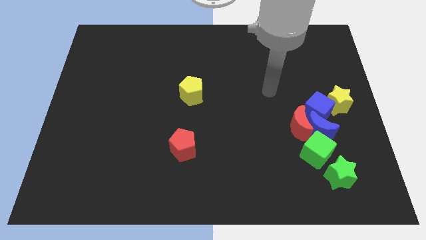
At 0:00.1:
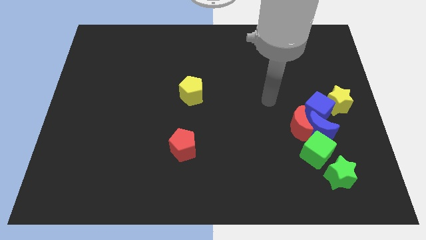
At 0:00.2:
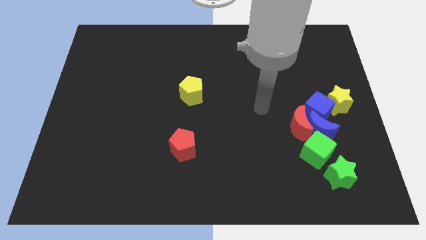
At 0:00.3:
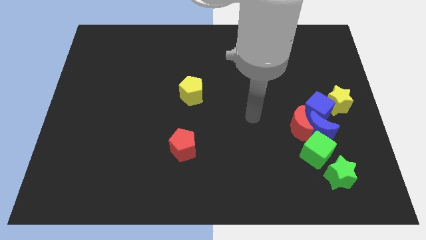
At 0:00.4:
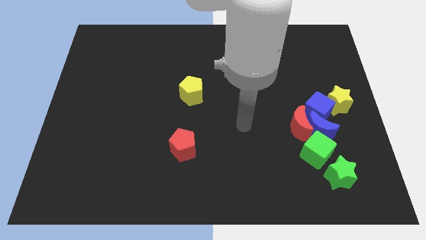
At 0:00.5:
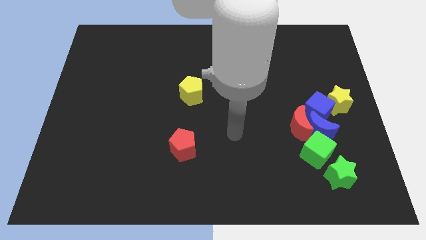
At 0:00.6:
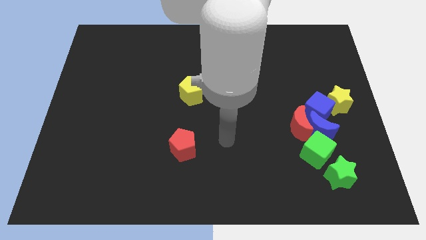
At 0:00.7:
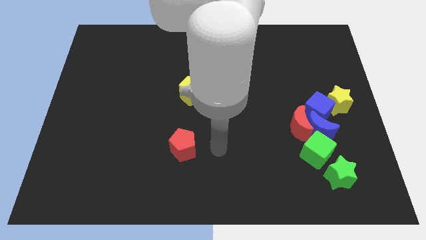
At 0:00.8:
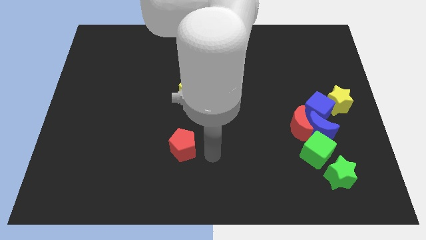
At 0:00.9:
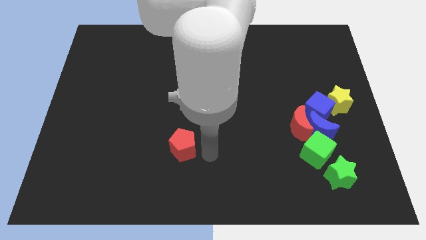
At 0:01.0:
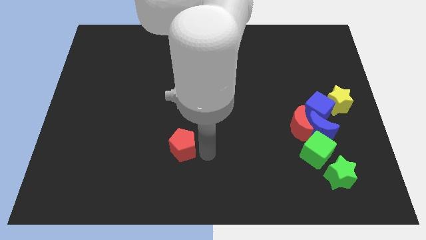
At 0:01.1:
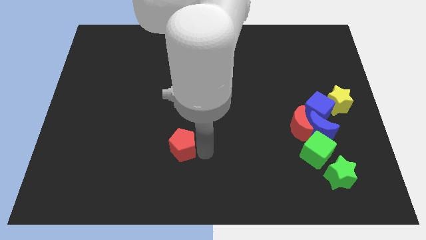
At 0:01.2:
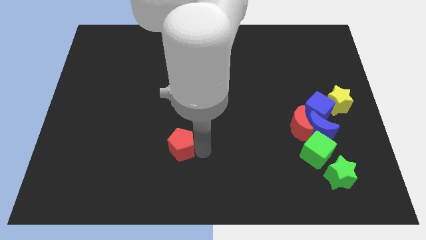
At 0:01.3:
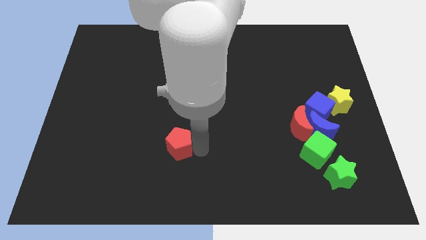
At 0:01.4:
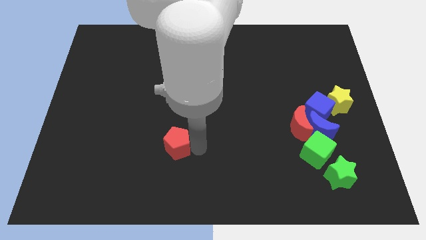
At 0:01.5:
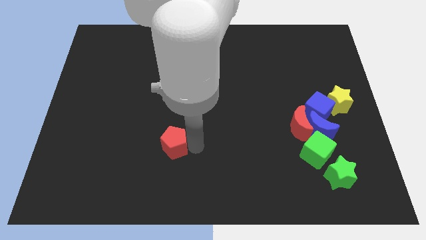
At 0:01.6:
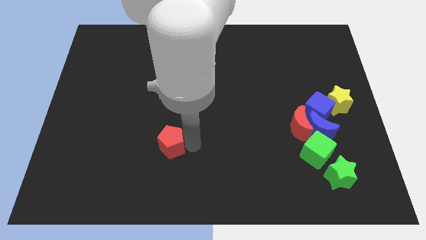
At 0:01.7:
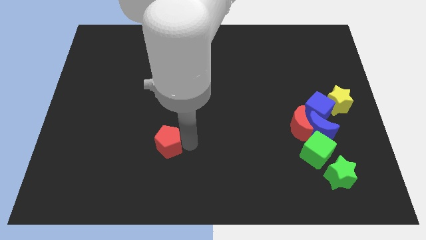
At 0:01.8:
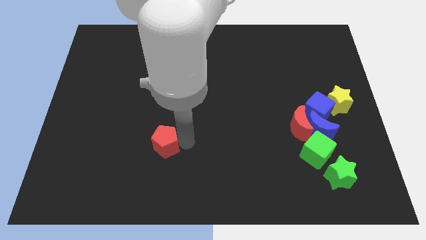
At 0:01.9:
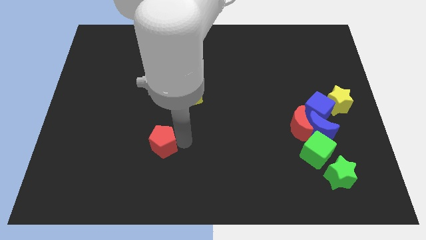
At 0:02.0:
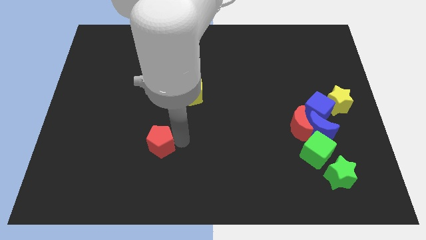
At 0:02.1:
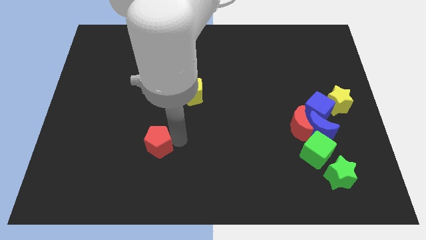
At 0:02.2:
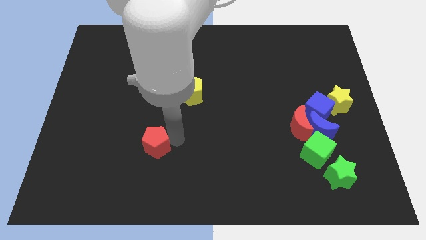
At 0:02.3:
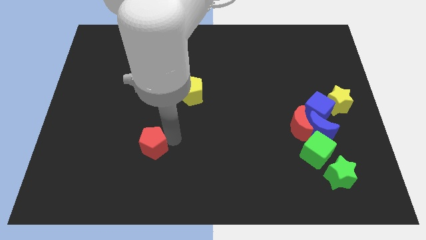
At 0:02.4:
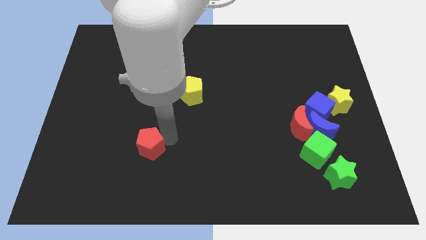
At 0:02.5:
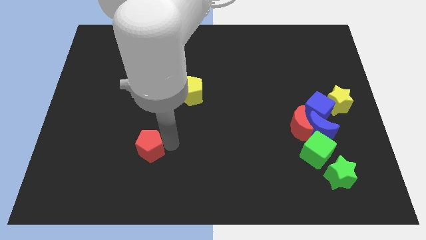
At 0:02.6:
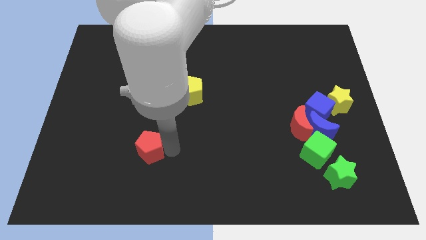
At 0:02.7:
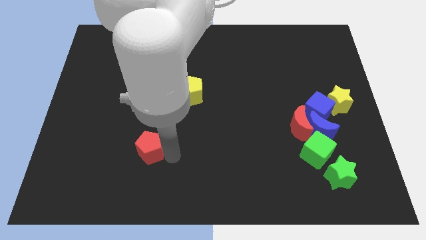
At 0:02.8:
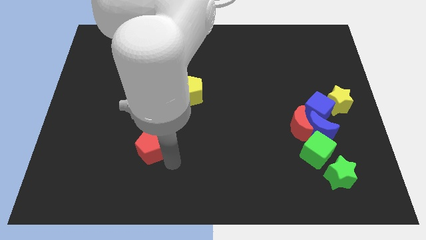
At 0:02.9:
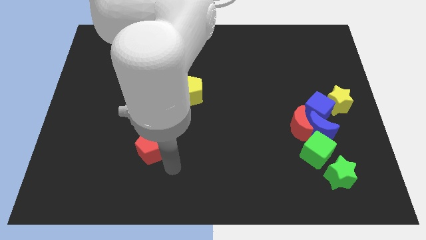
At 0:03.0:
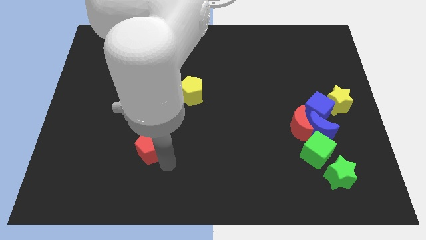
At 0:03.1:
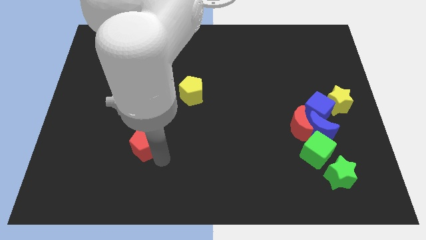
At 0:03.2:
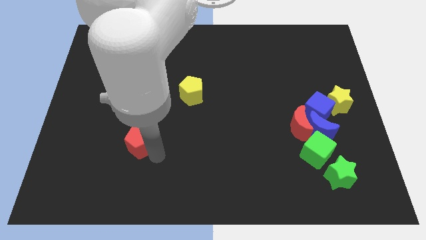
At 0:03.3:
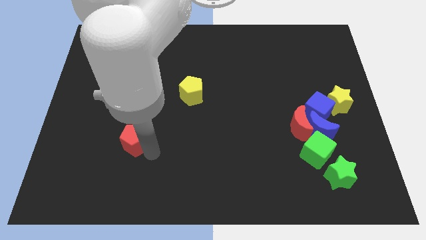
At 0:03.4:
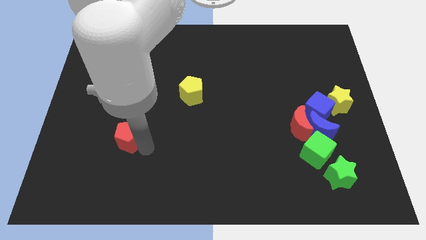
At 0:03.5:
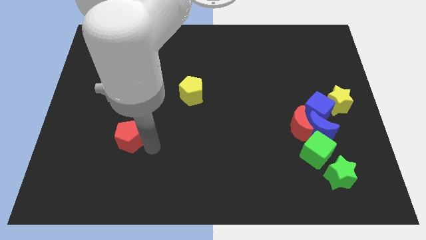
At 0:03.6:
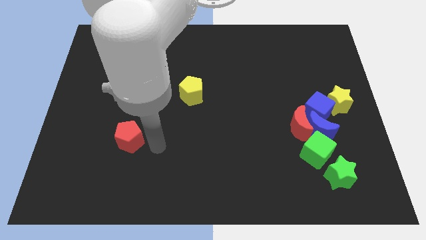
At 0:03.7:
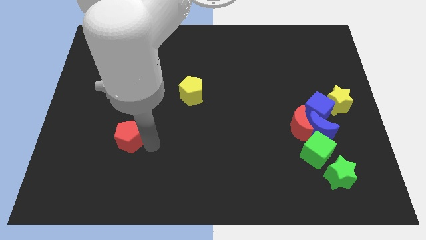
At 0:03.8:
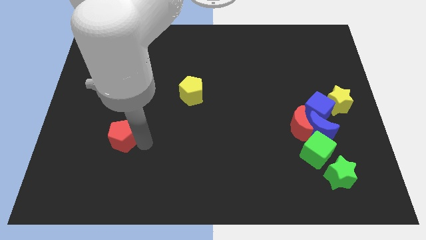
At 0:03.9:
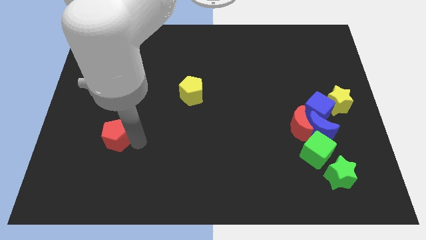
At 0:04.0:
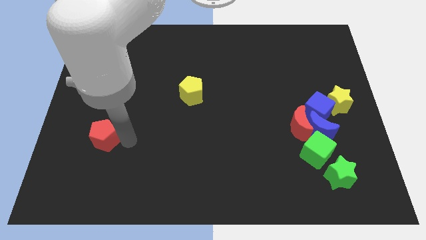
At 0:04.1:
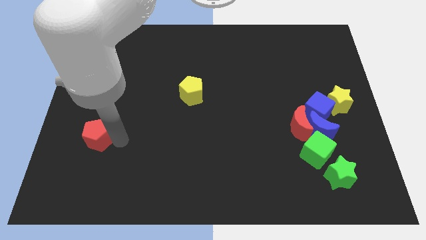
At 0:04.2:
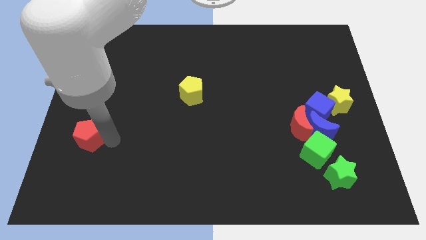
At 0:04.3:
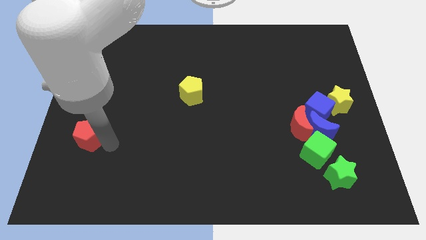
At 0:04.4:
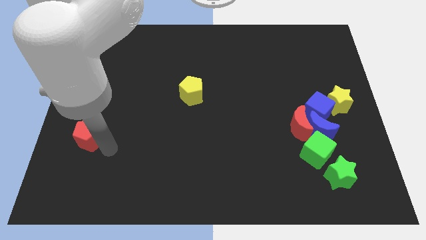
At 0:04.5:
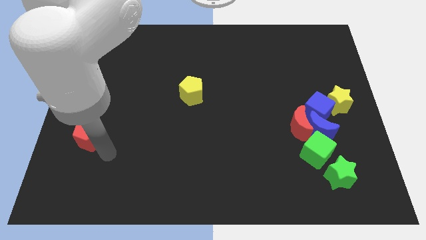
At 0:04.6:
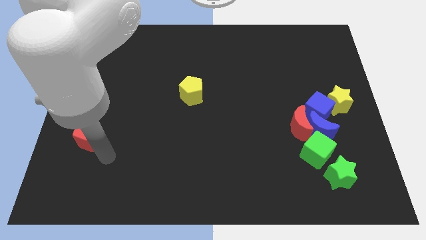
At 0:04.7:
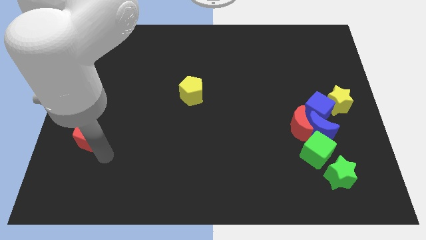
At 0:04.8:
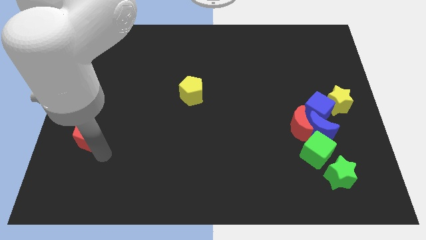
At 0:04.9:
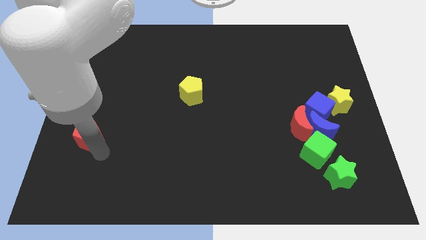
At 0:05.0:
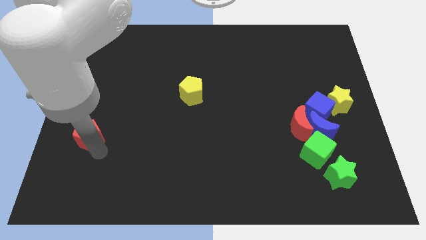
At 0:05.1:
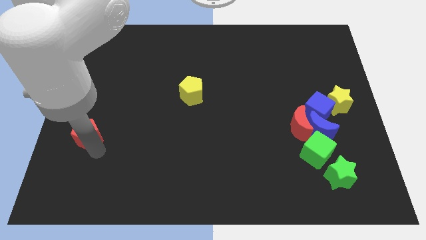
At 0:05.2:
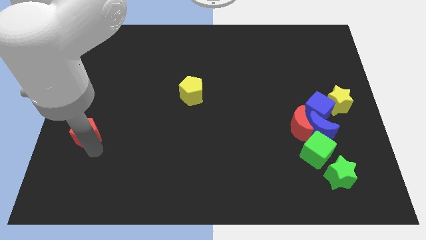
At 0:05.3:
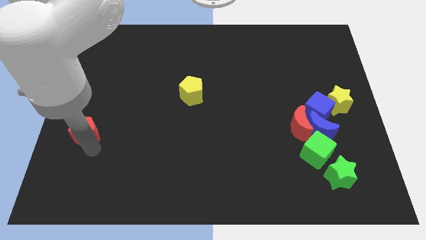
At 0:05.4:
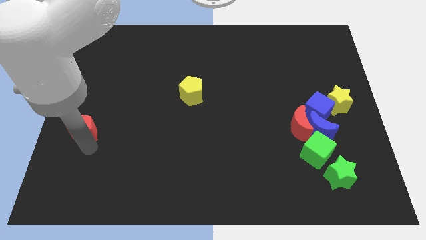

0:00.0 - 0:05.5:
slide the red pentagon to the left side of the board

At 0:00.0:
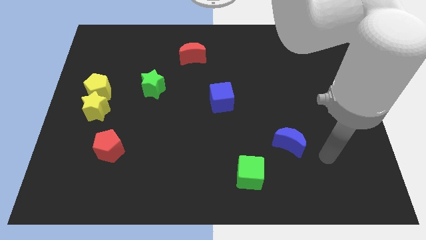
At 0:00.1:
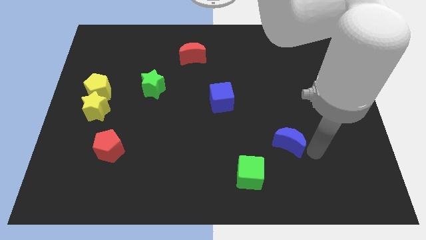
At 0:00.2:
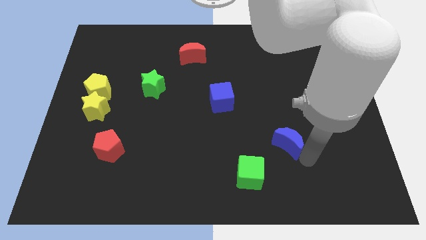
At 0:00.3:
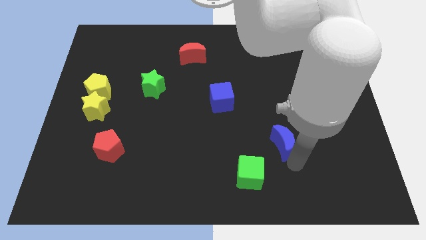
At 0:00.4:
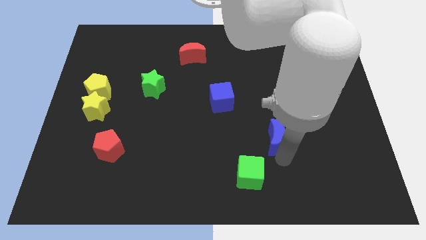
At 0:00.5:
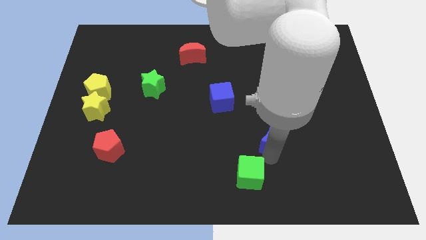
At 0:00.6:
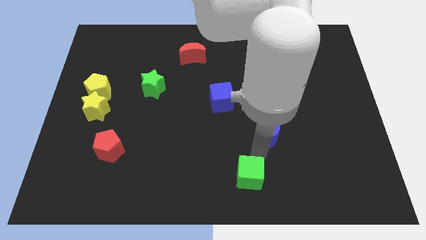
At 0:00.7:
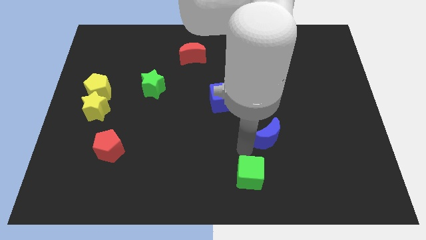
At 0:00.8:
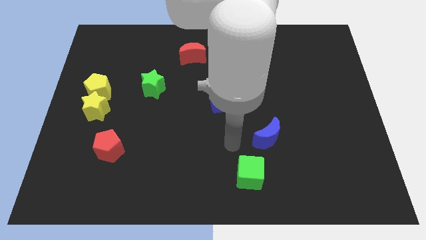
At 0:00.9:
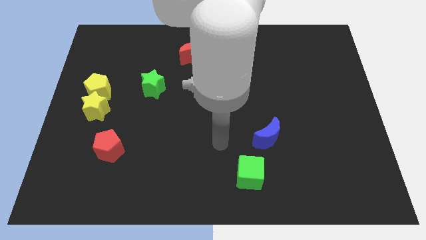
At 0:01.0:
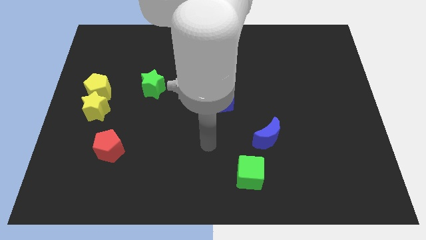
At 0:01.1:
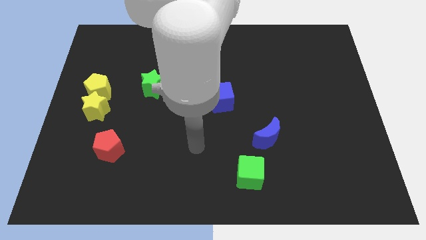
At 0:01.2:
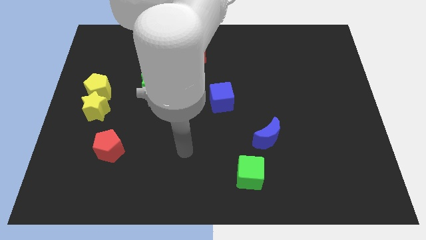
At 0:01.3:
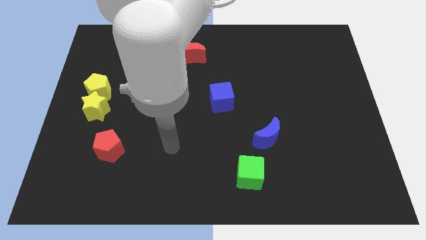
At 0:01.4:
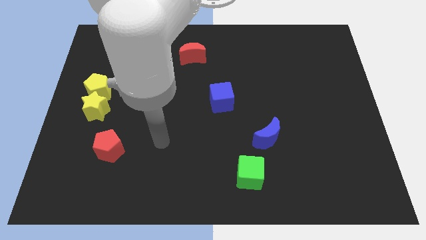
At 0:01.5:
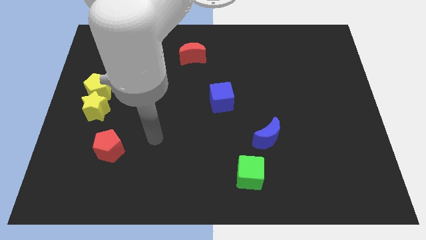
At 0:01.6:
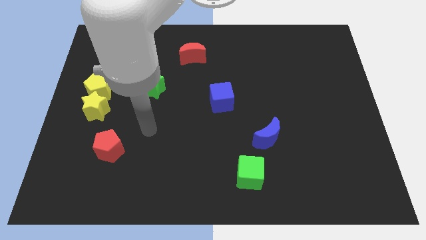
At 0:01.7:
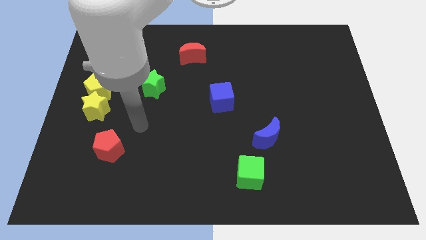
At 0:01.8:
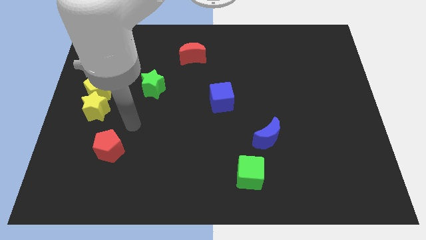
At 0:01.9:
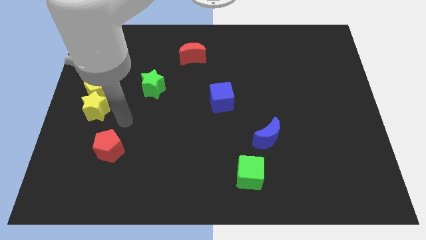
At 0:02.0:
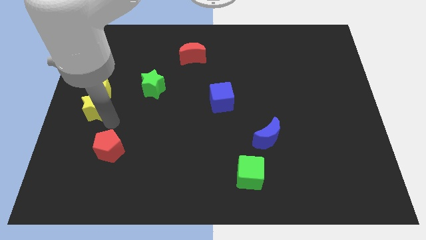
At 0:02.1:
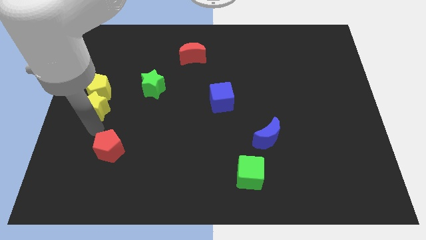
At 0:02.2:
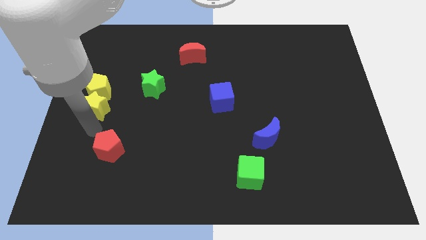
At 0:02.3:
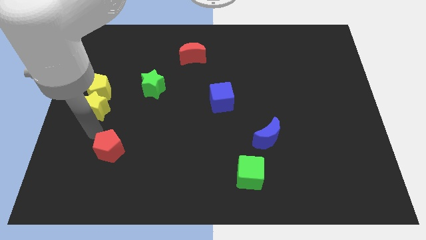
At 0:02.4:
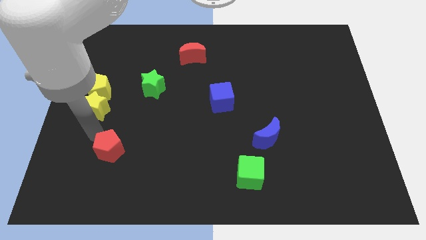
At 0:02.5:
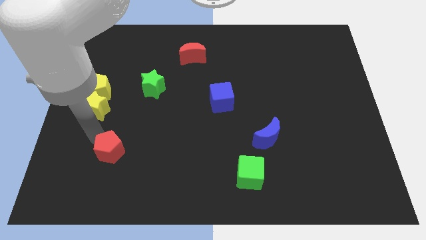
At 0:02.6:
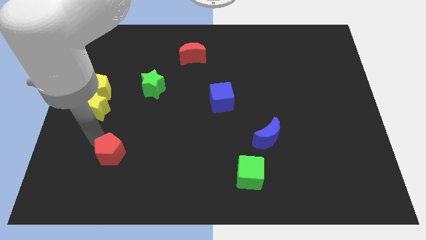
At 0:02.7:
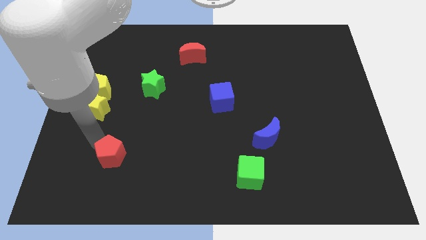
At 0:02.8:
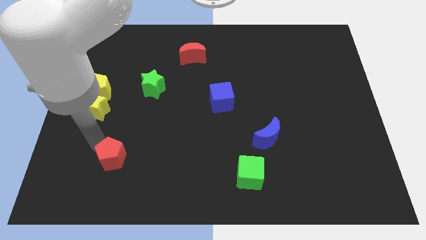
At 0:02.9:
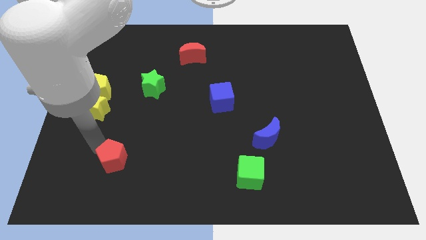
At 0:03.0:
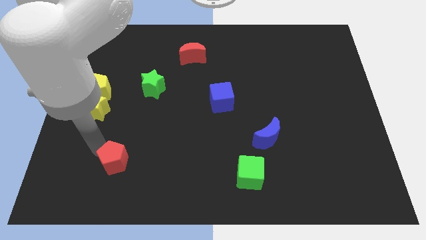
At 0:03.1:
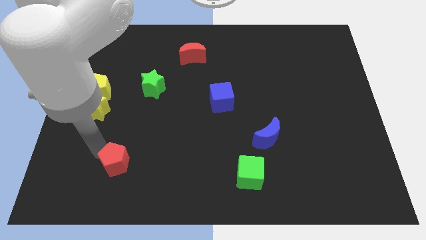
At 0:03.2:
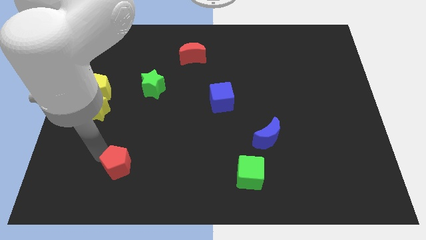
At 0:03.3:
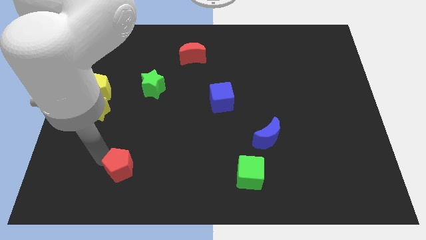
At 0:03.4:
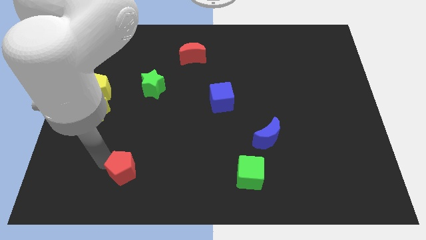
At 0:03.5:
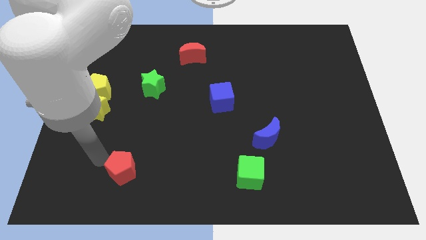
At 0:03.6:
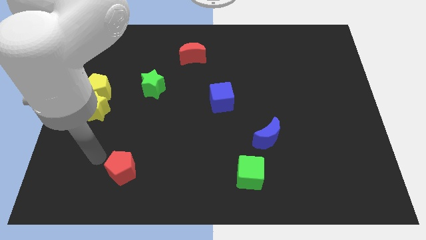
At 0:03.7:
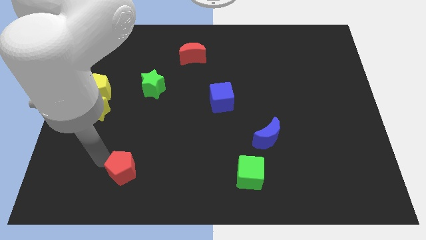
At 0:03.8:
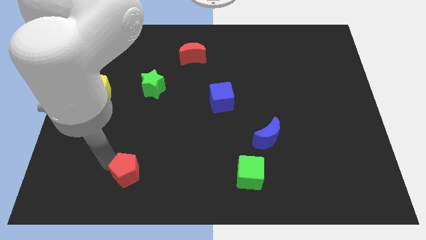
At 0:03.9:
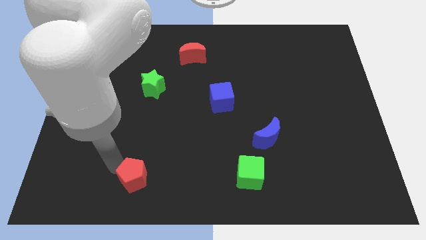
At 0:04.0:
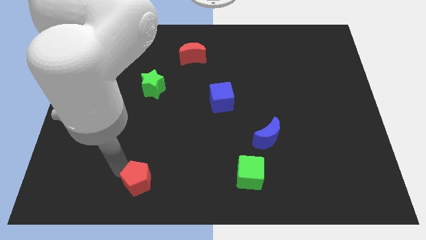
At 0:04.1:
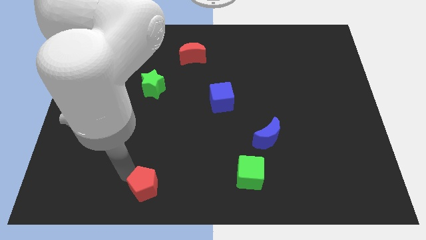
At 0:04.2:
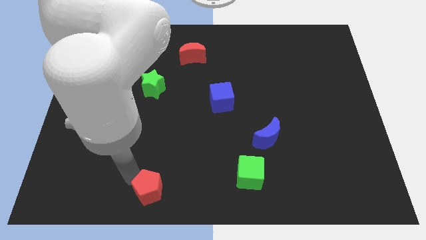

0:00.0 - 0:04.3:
push the red pentagon to the bottom side
